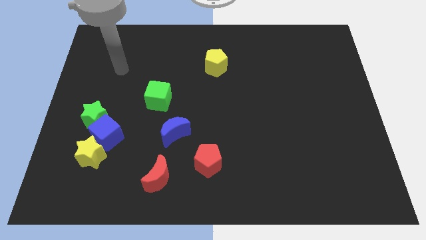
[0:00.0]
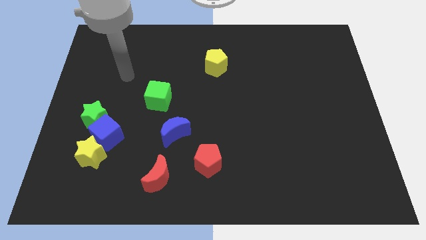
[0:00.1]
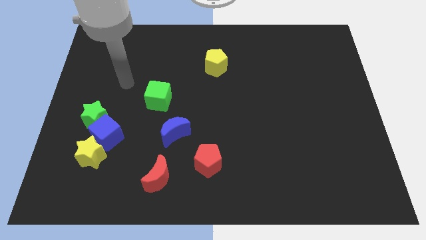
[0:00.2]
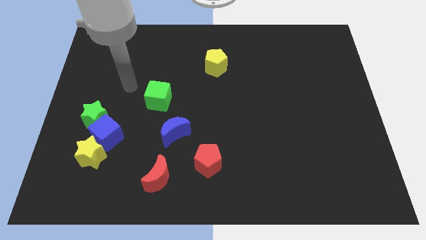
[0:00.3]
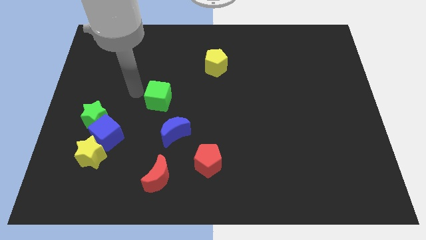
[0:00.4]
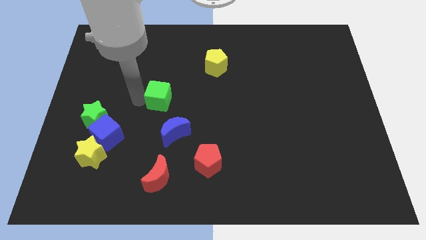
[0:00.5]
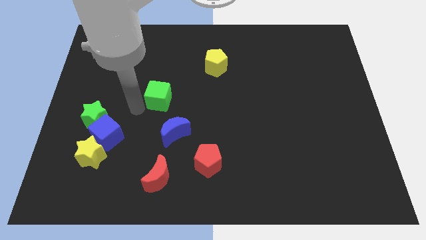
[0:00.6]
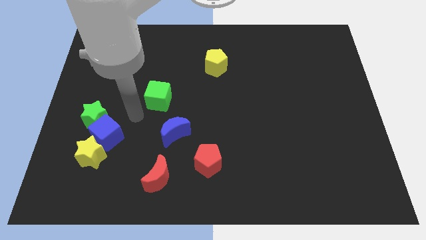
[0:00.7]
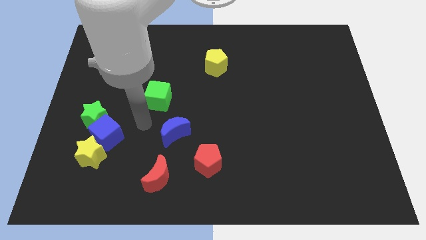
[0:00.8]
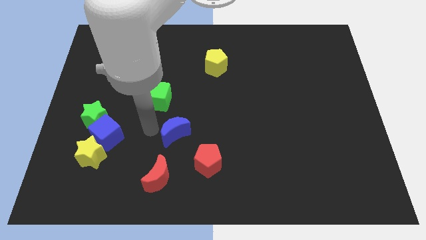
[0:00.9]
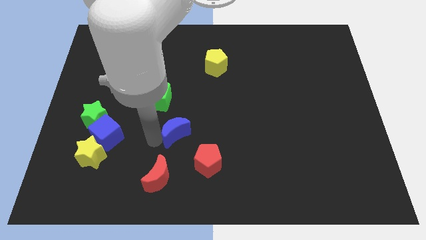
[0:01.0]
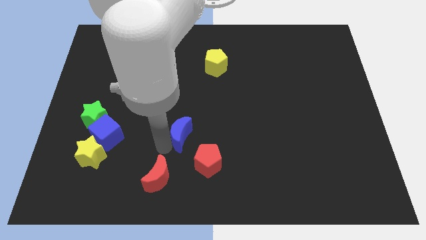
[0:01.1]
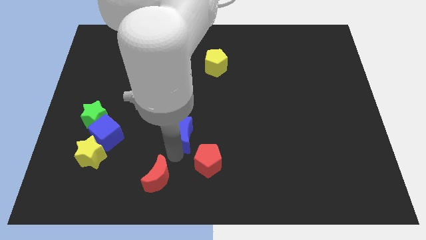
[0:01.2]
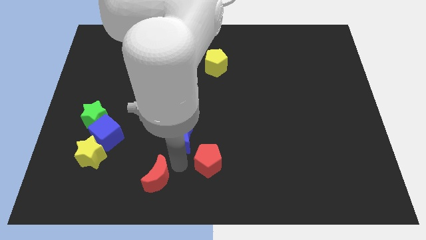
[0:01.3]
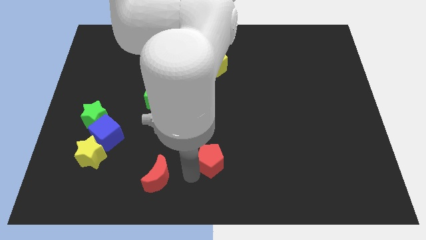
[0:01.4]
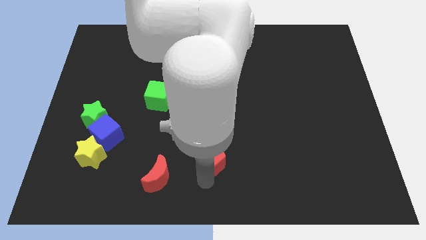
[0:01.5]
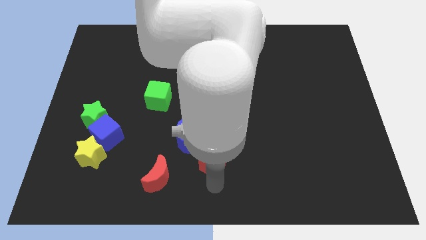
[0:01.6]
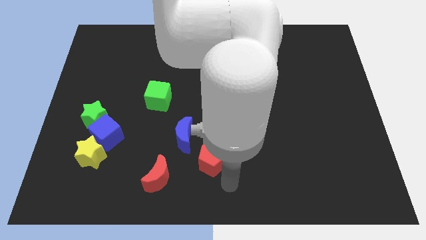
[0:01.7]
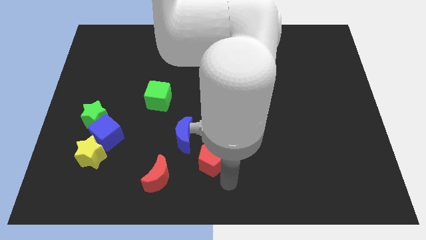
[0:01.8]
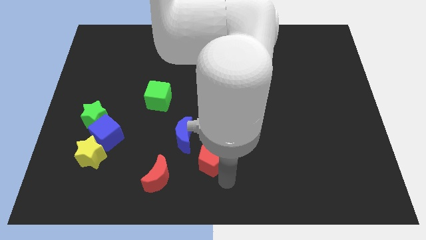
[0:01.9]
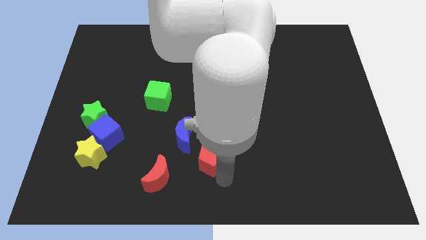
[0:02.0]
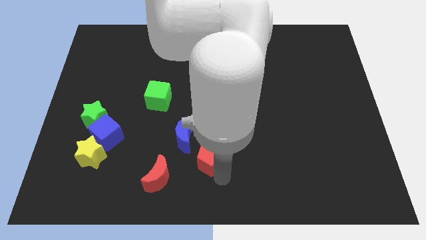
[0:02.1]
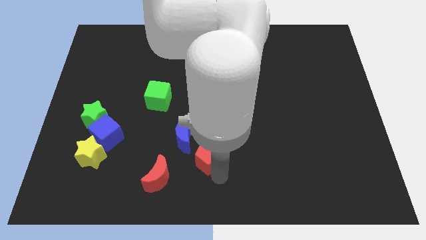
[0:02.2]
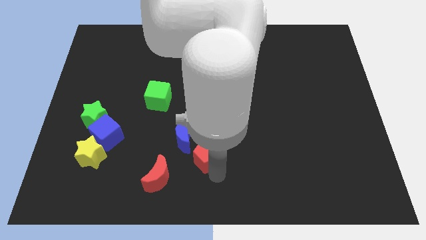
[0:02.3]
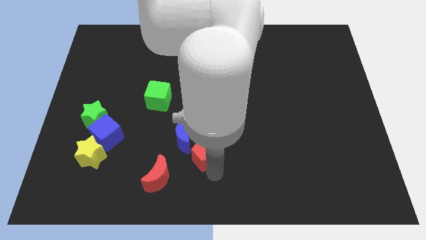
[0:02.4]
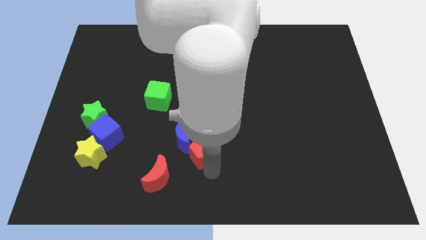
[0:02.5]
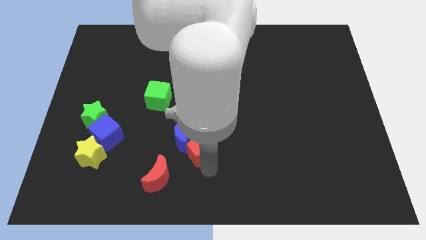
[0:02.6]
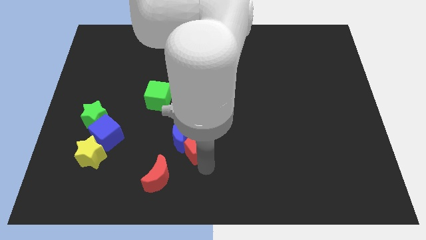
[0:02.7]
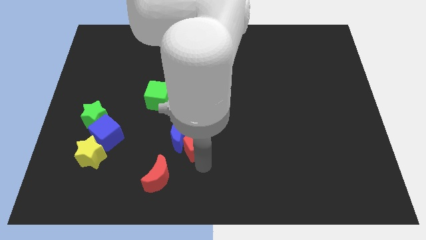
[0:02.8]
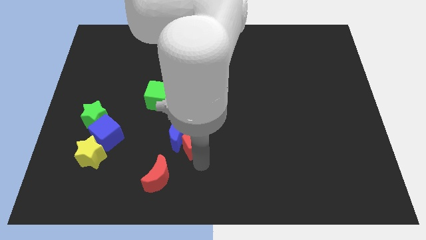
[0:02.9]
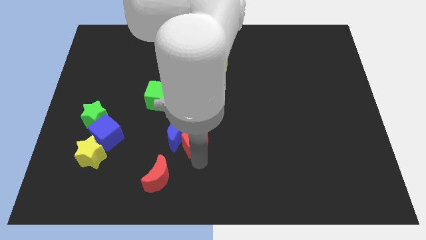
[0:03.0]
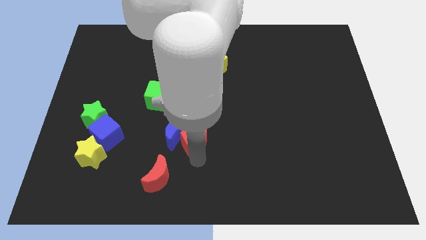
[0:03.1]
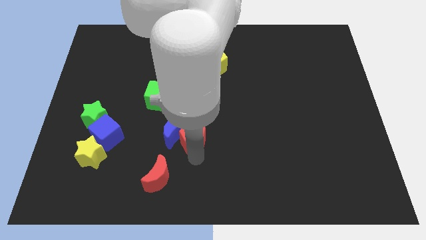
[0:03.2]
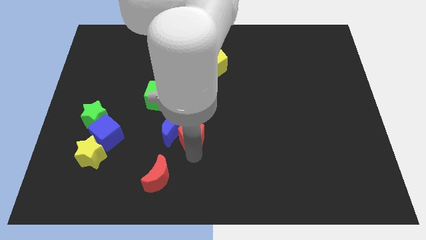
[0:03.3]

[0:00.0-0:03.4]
push the red pentagon up and to the left diagonally a little bit

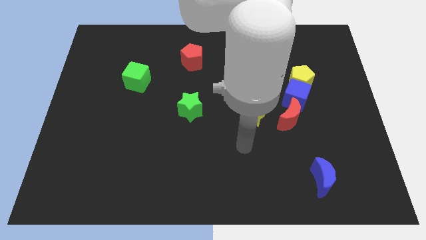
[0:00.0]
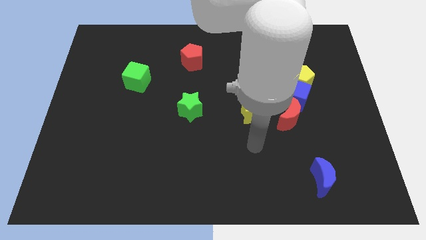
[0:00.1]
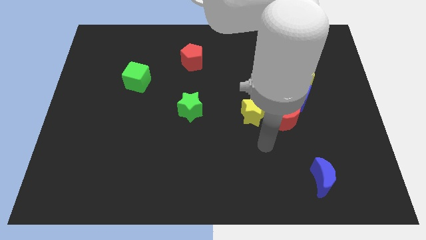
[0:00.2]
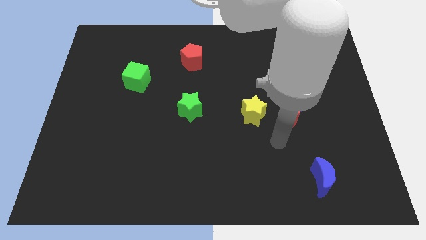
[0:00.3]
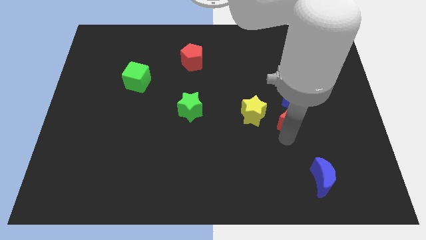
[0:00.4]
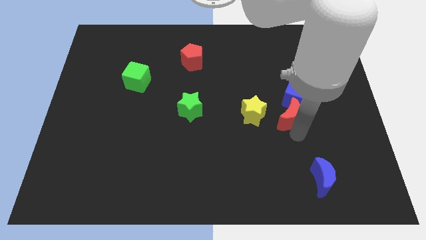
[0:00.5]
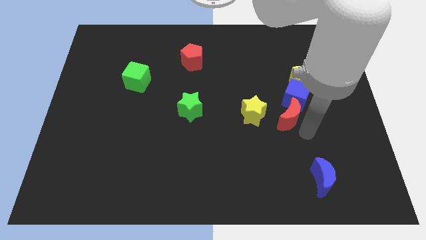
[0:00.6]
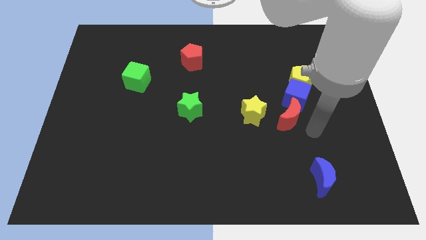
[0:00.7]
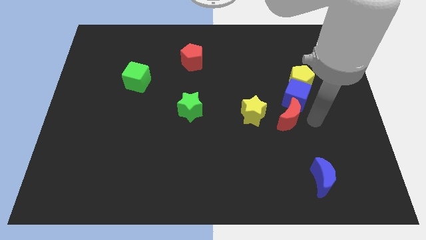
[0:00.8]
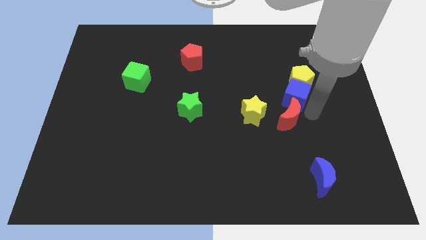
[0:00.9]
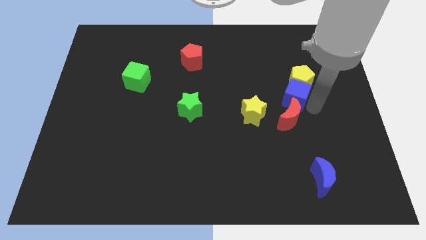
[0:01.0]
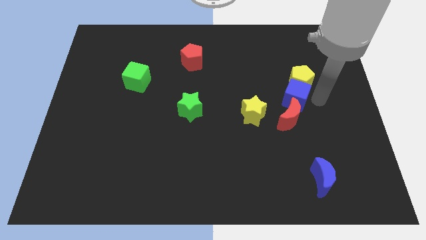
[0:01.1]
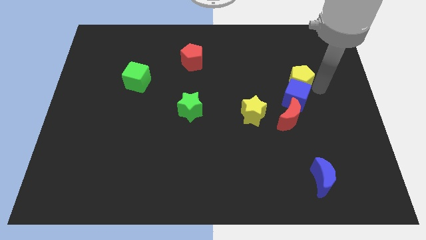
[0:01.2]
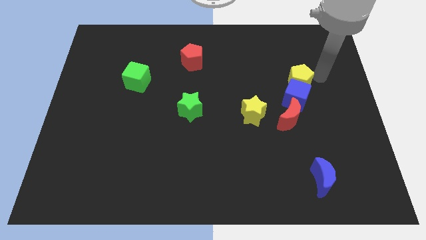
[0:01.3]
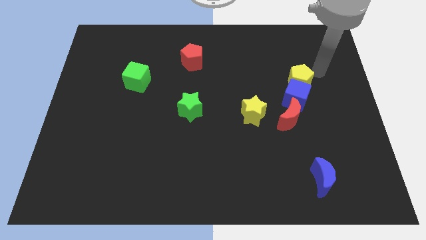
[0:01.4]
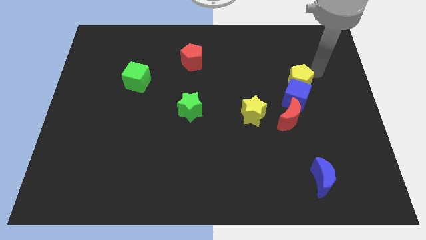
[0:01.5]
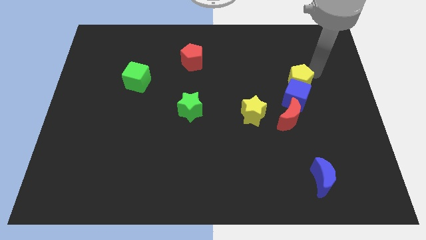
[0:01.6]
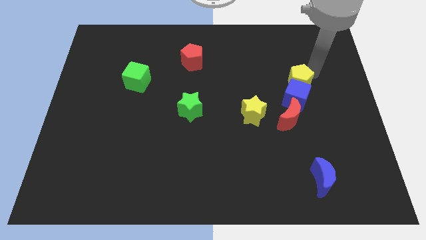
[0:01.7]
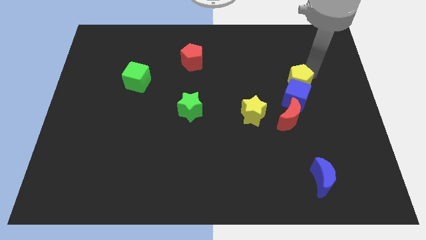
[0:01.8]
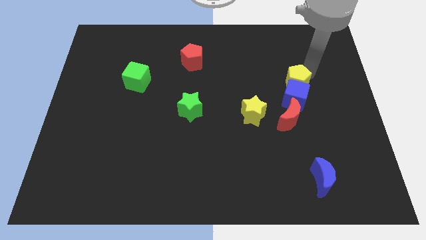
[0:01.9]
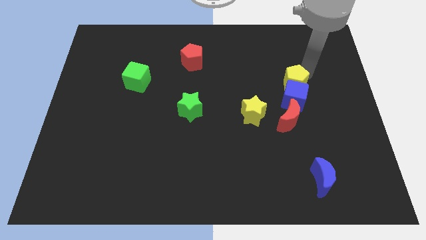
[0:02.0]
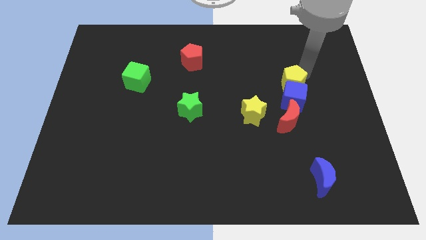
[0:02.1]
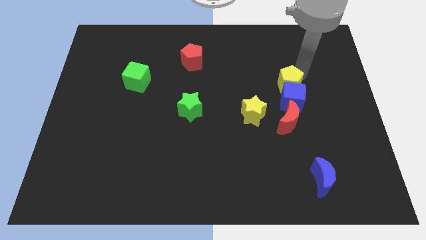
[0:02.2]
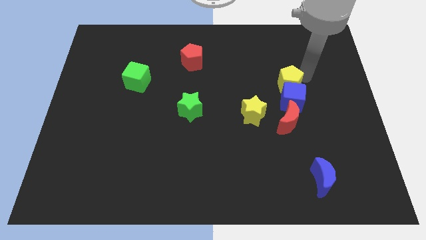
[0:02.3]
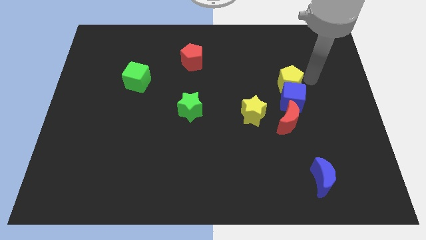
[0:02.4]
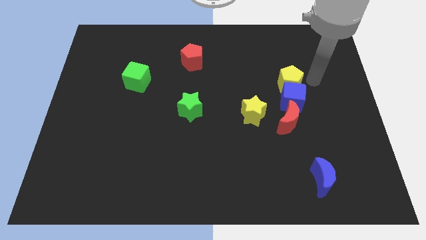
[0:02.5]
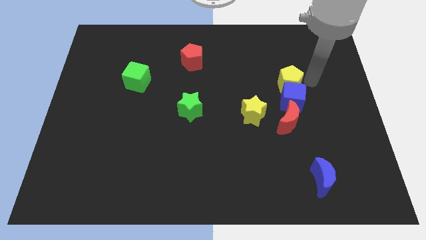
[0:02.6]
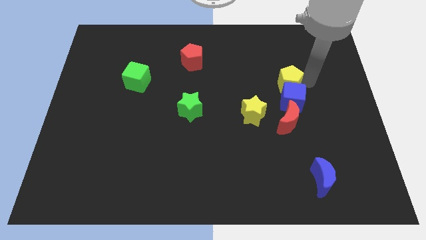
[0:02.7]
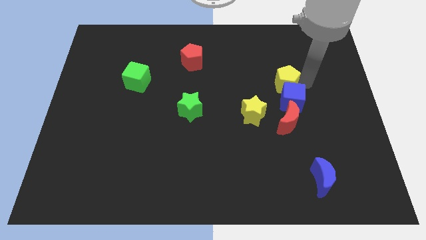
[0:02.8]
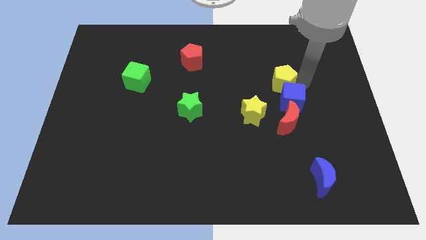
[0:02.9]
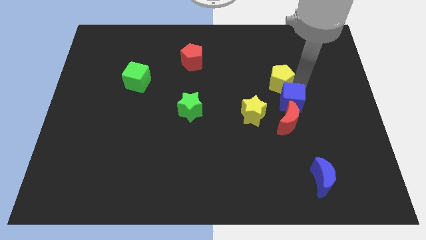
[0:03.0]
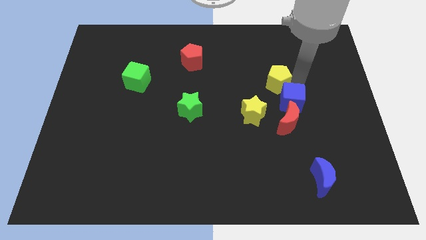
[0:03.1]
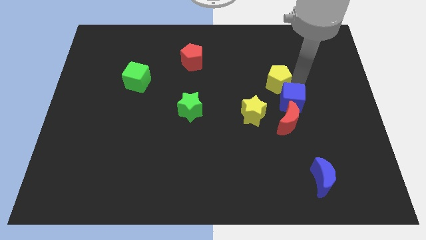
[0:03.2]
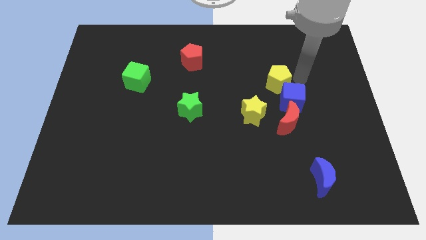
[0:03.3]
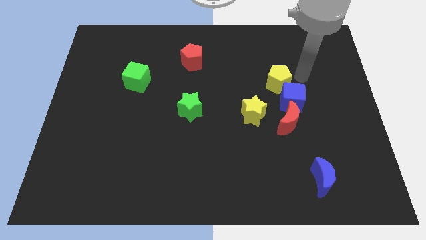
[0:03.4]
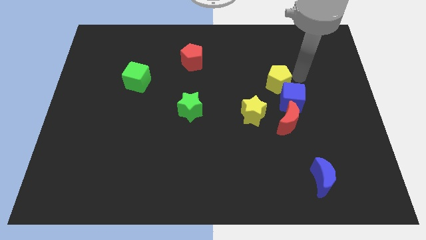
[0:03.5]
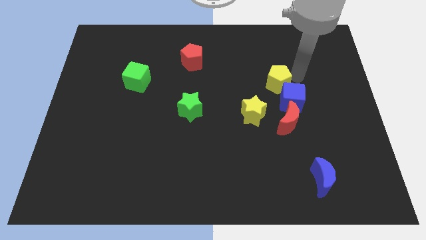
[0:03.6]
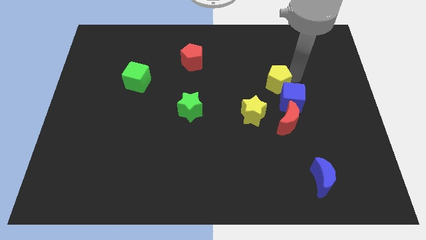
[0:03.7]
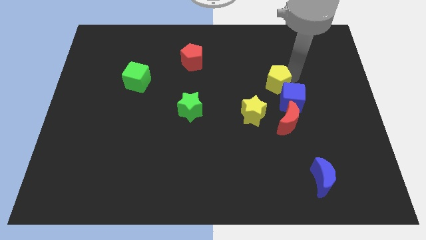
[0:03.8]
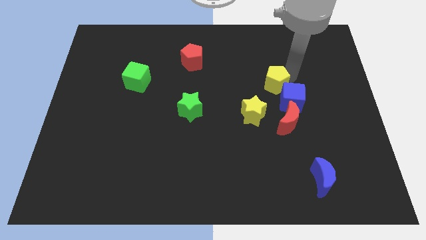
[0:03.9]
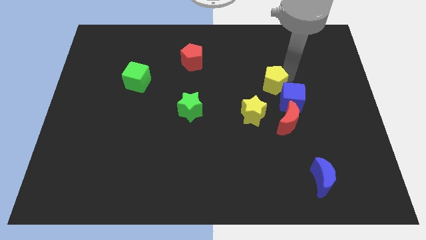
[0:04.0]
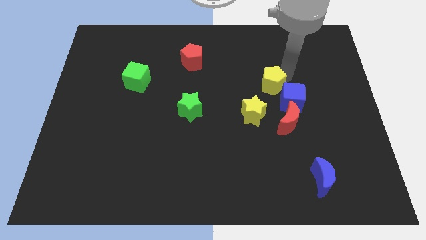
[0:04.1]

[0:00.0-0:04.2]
slightly push the yellow pentagon left

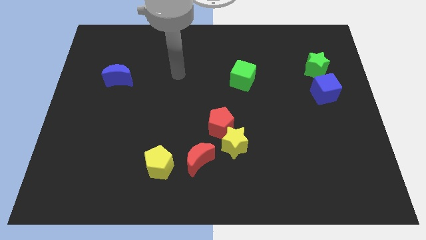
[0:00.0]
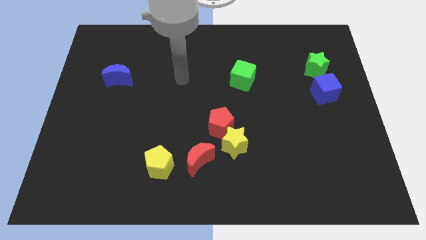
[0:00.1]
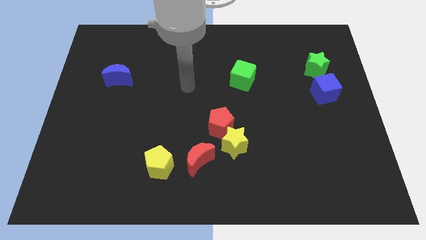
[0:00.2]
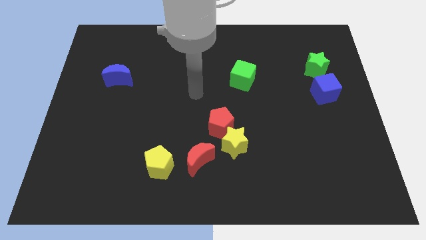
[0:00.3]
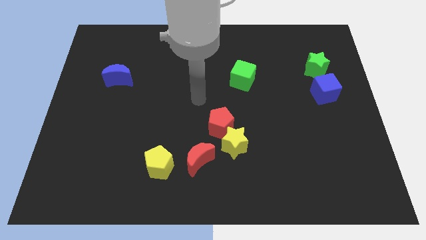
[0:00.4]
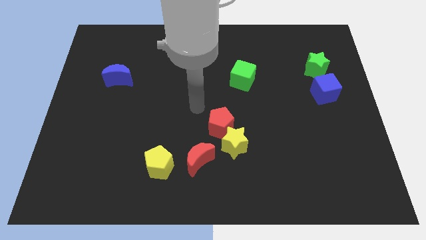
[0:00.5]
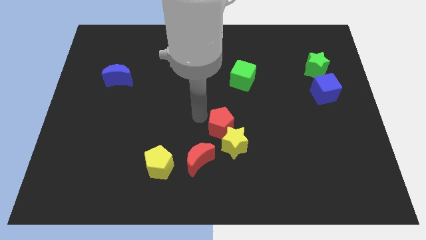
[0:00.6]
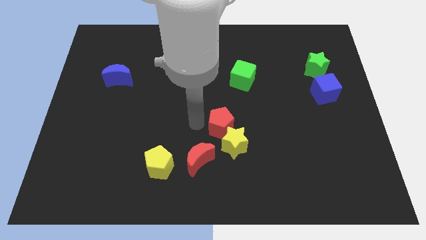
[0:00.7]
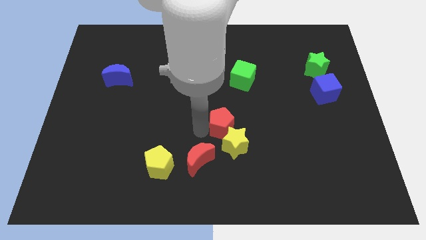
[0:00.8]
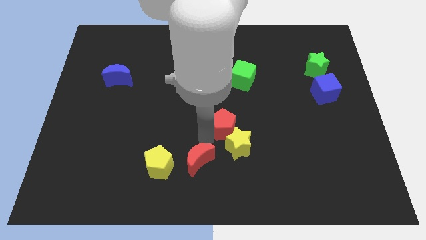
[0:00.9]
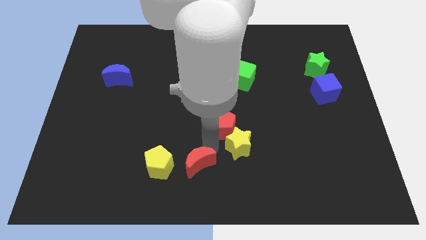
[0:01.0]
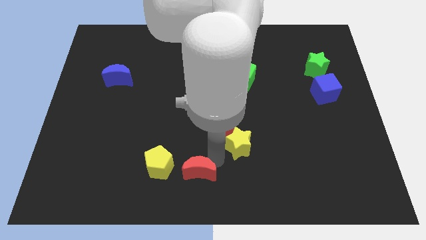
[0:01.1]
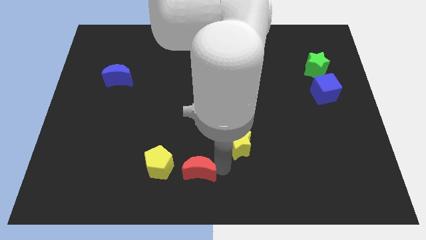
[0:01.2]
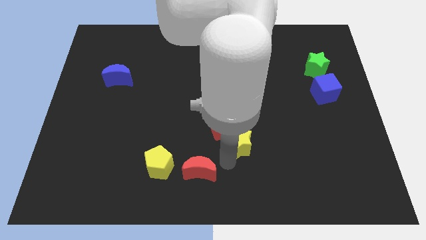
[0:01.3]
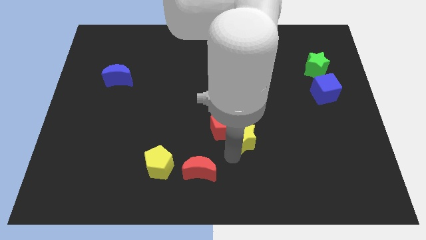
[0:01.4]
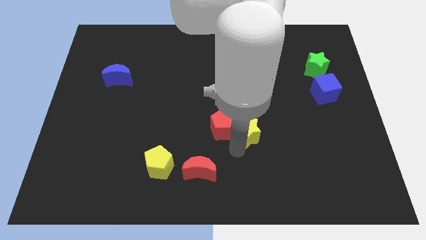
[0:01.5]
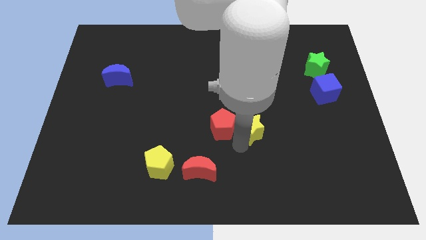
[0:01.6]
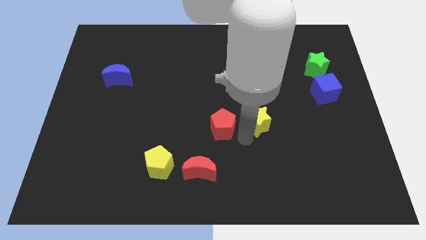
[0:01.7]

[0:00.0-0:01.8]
slightly push the yellow star upwards and right
